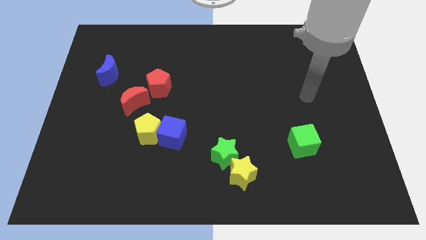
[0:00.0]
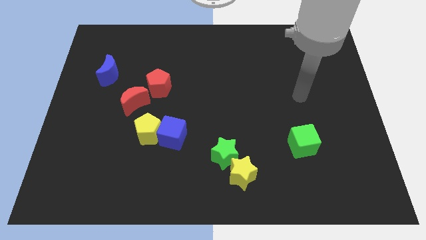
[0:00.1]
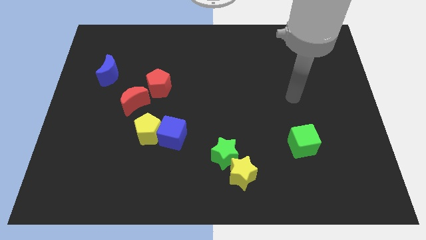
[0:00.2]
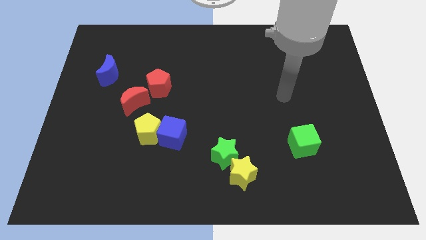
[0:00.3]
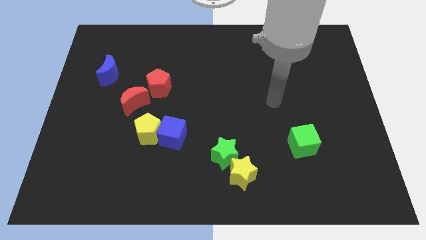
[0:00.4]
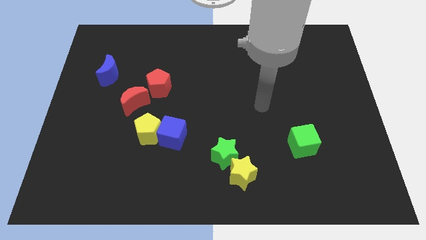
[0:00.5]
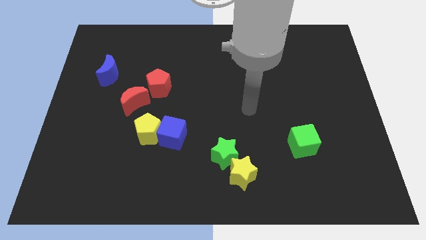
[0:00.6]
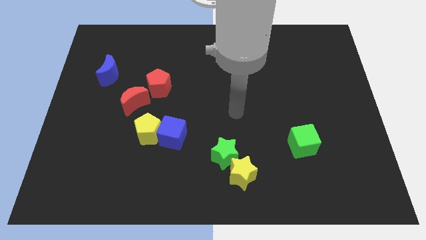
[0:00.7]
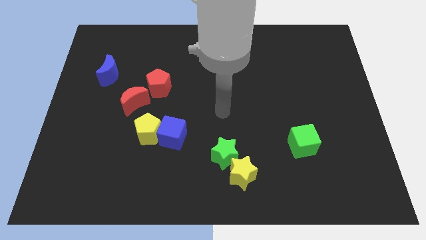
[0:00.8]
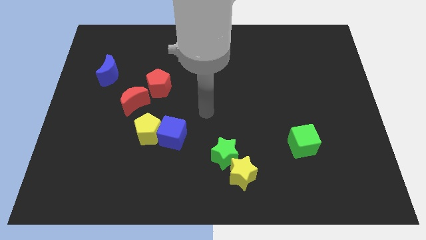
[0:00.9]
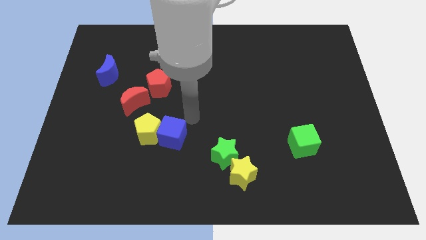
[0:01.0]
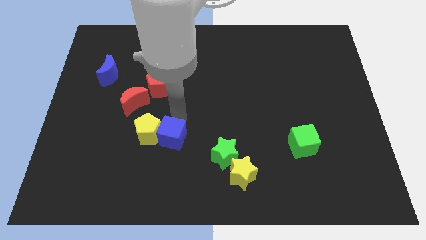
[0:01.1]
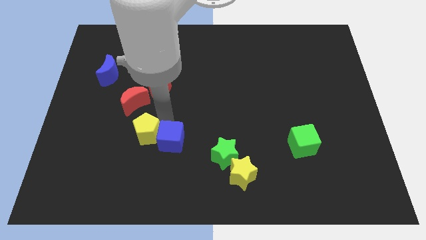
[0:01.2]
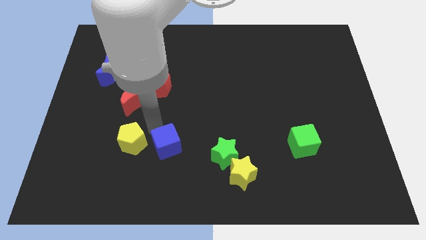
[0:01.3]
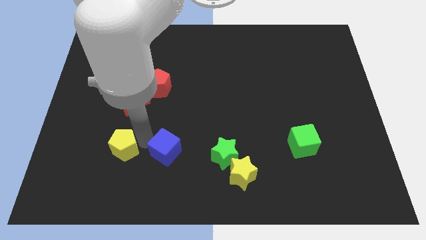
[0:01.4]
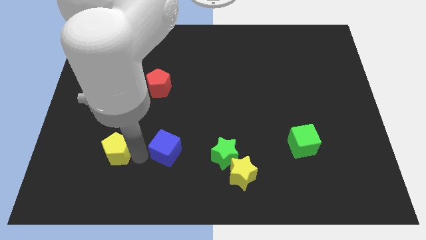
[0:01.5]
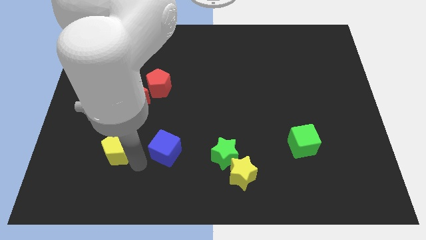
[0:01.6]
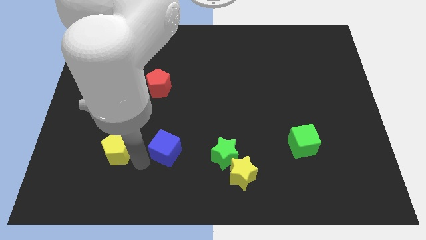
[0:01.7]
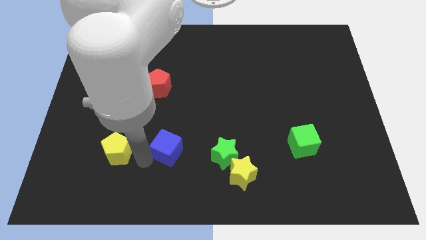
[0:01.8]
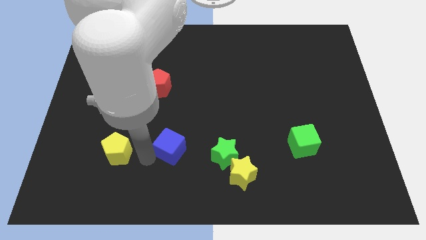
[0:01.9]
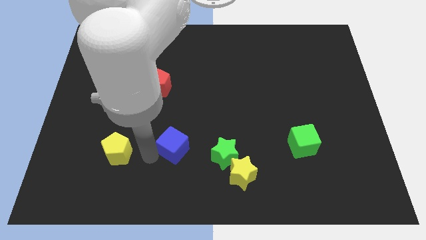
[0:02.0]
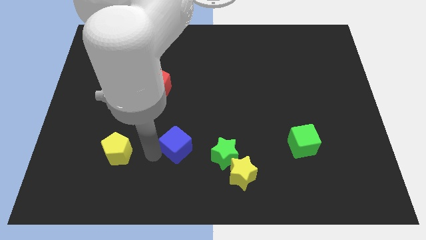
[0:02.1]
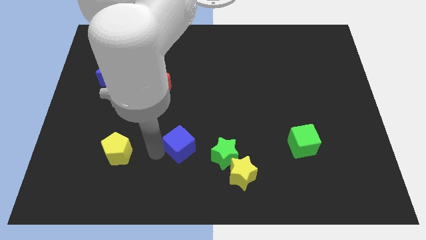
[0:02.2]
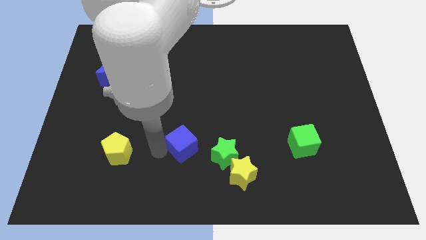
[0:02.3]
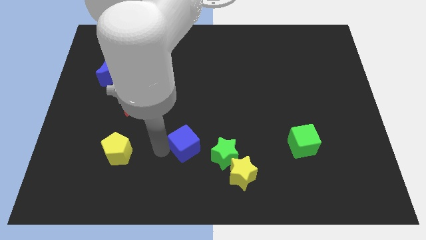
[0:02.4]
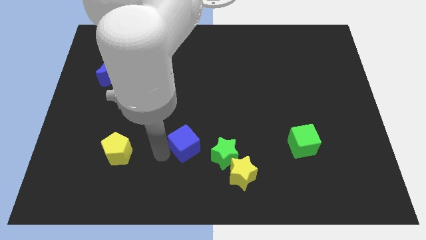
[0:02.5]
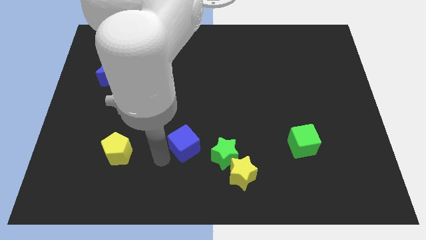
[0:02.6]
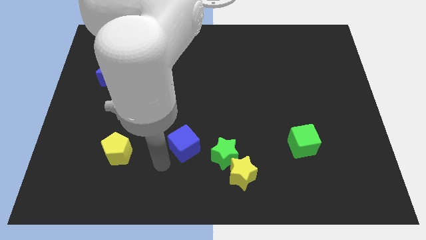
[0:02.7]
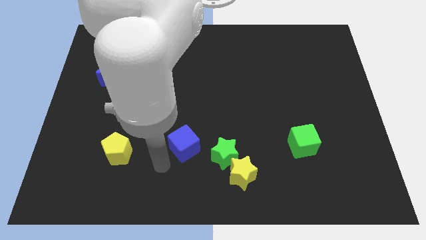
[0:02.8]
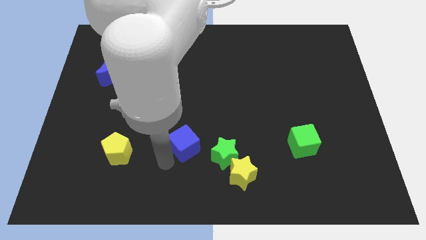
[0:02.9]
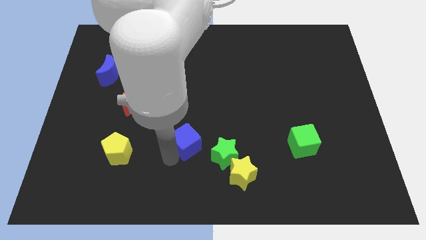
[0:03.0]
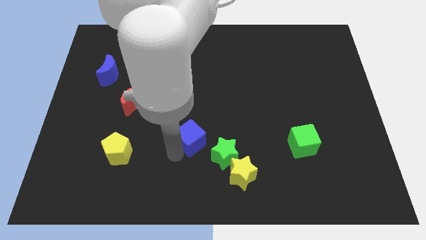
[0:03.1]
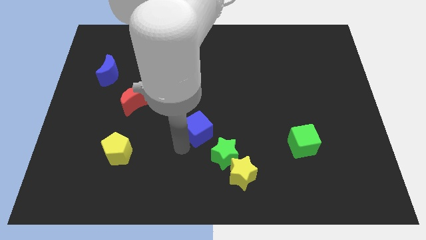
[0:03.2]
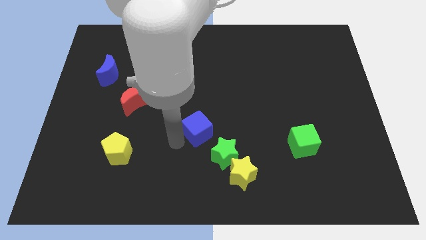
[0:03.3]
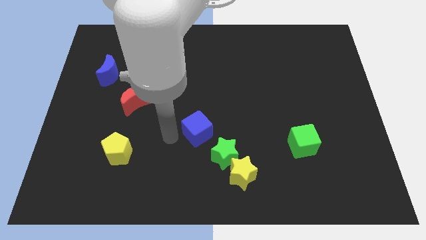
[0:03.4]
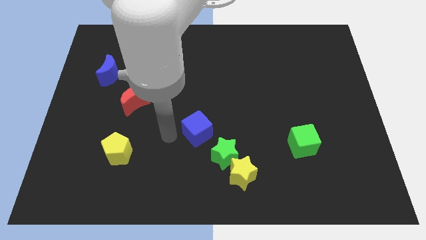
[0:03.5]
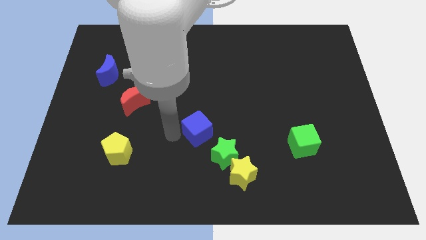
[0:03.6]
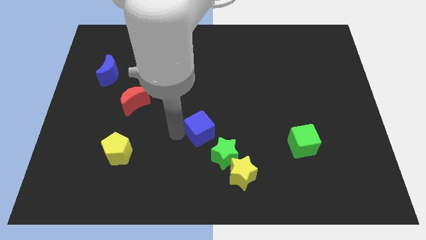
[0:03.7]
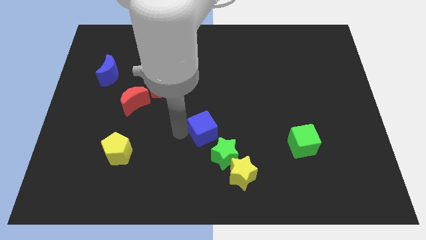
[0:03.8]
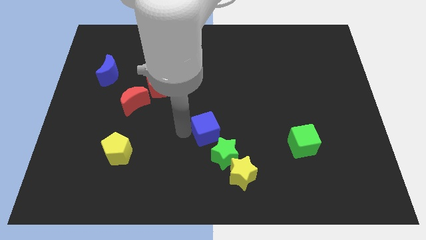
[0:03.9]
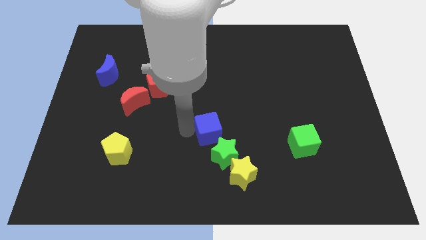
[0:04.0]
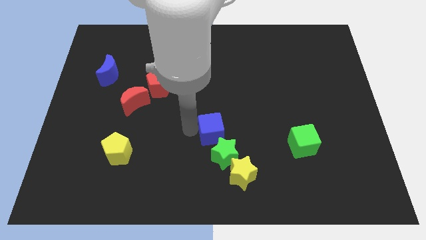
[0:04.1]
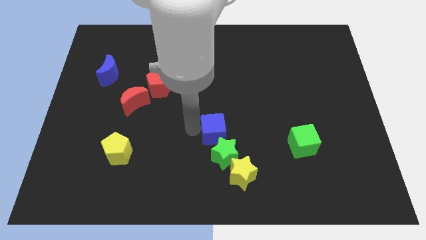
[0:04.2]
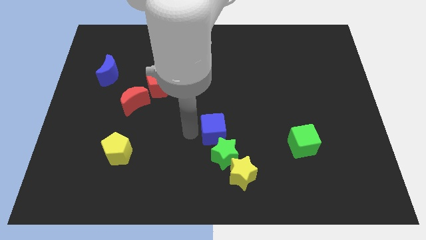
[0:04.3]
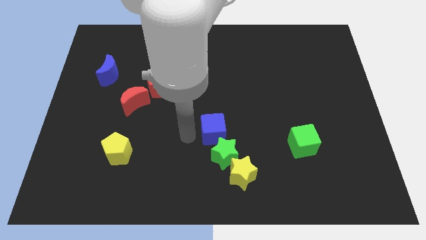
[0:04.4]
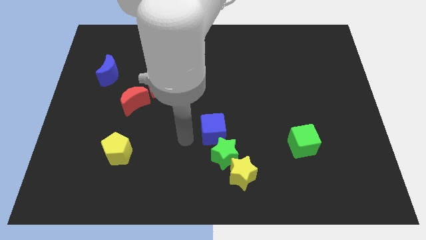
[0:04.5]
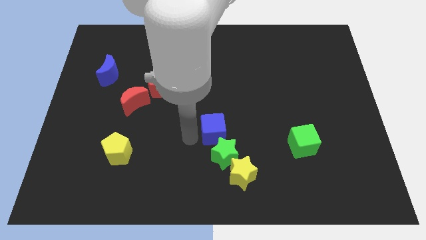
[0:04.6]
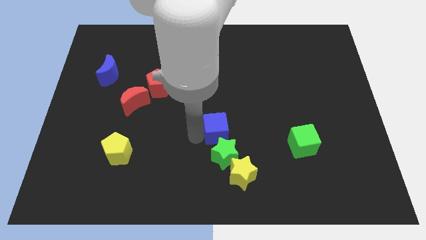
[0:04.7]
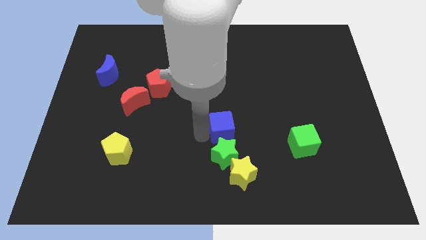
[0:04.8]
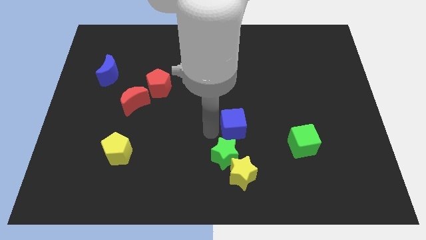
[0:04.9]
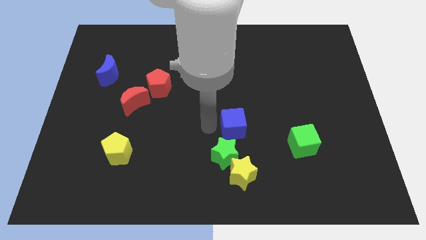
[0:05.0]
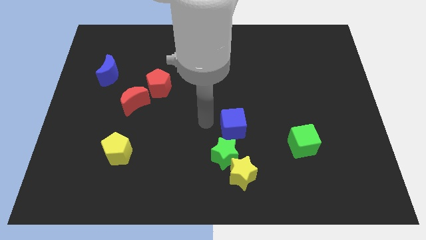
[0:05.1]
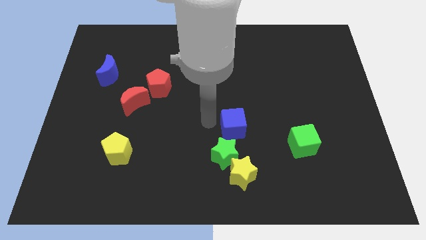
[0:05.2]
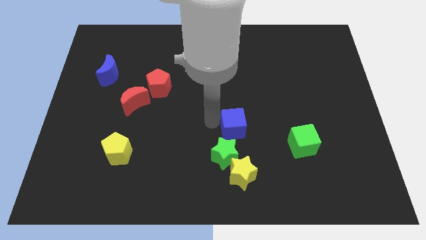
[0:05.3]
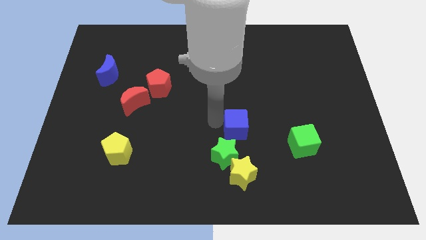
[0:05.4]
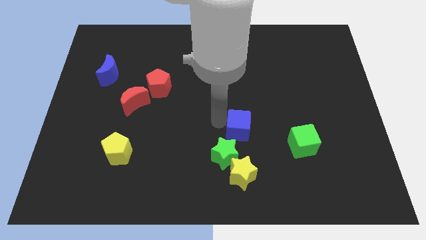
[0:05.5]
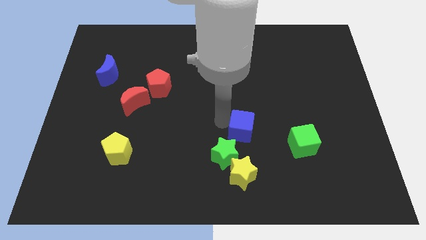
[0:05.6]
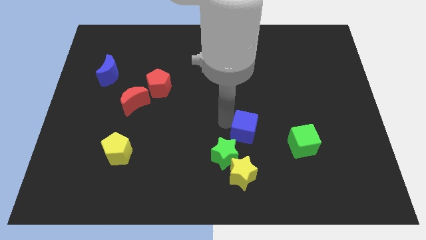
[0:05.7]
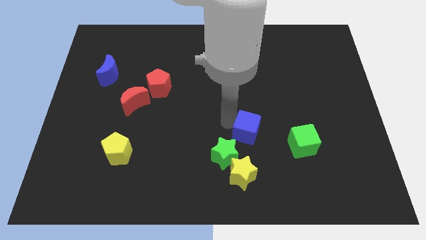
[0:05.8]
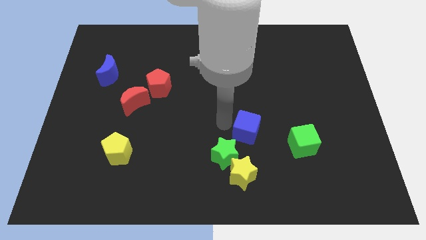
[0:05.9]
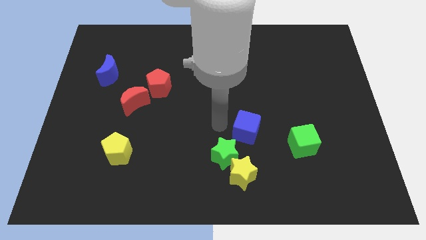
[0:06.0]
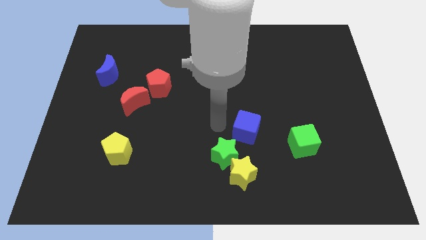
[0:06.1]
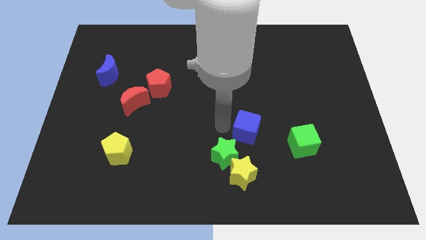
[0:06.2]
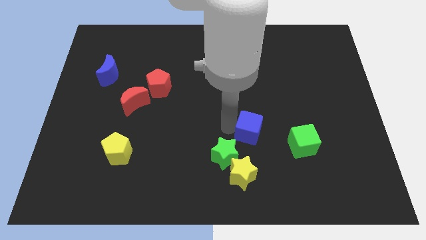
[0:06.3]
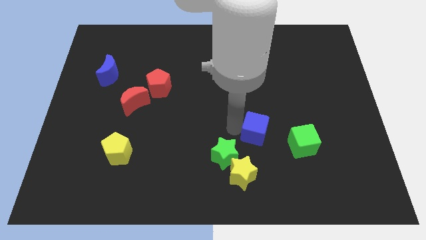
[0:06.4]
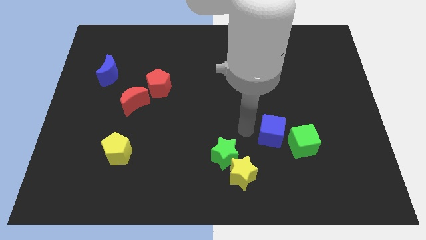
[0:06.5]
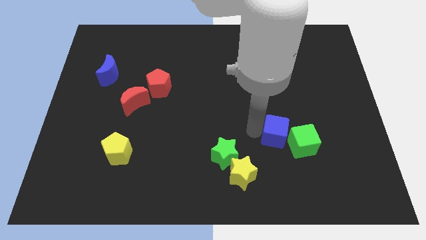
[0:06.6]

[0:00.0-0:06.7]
push the blue cube towards the green cube
